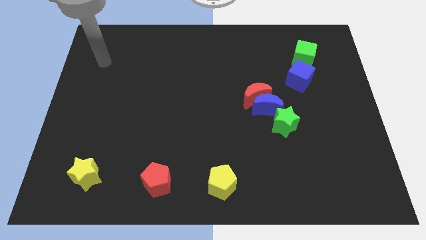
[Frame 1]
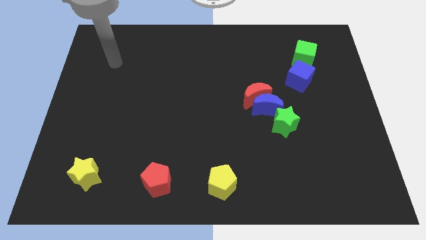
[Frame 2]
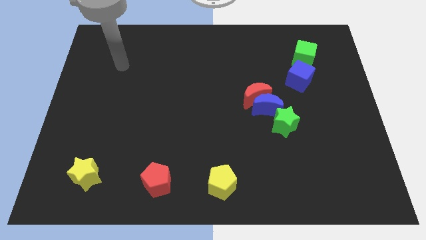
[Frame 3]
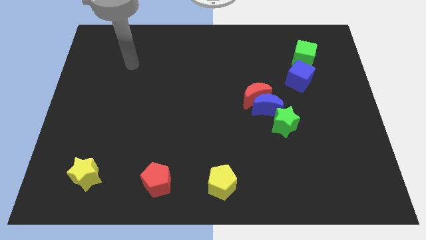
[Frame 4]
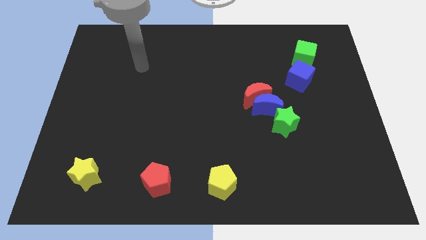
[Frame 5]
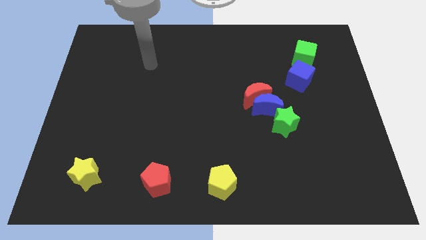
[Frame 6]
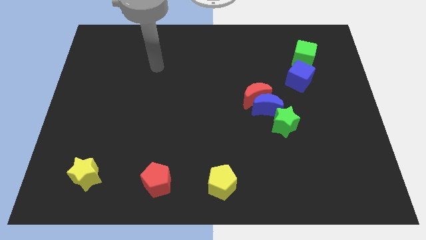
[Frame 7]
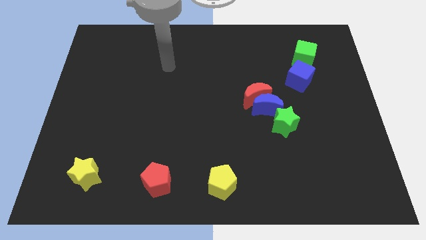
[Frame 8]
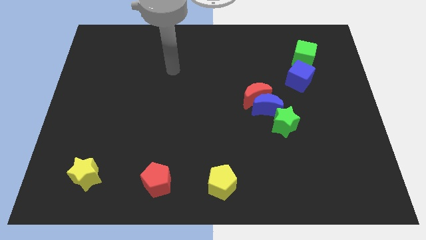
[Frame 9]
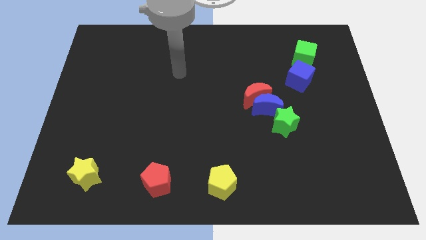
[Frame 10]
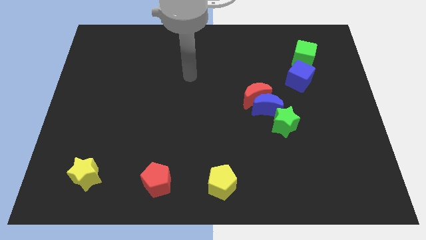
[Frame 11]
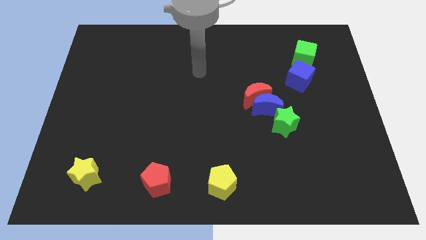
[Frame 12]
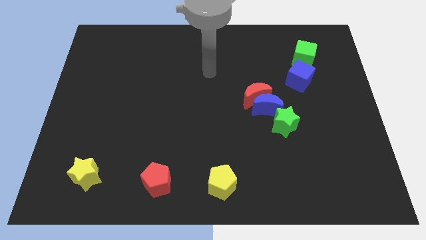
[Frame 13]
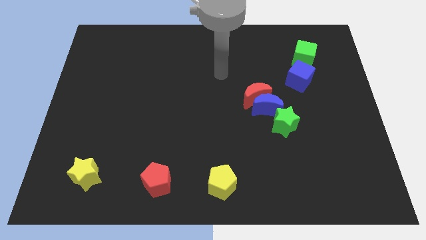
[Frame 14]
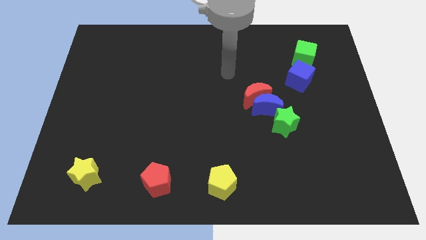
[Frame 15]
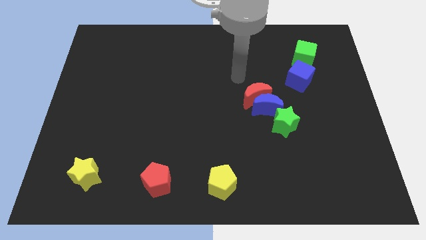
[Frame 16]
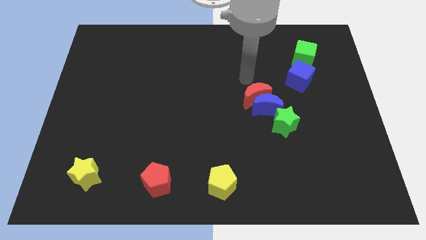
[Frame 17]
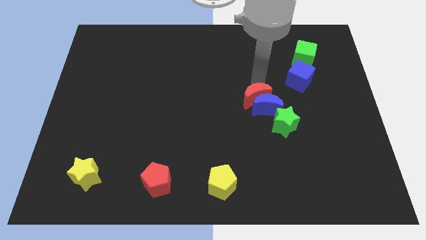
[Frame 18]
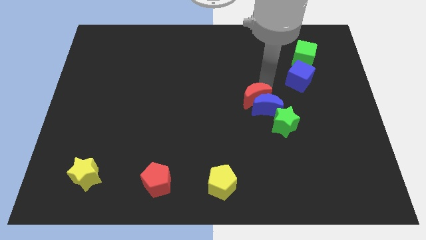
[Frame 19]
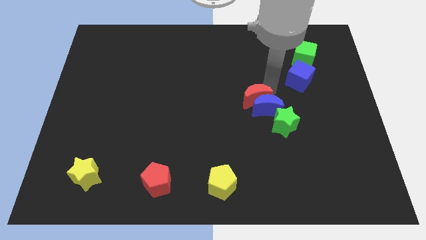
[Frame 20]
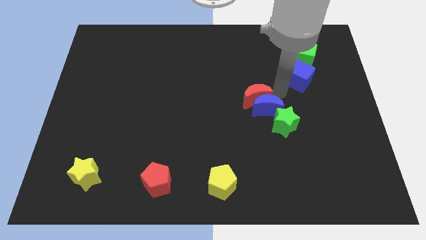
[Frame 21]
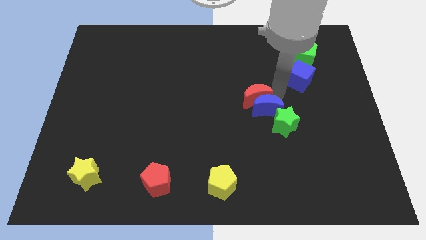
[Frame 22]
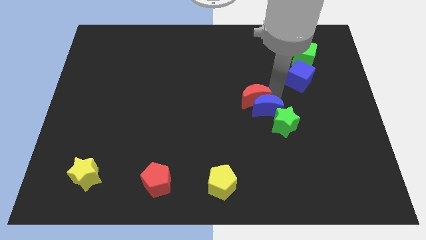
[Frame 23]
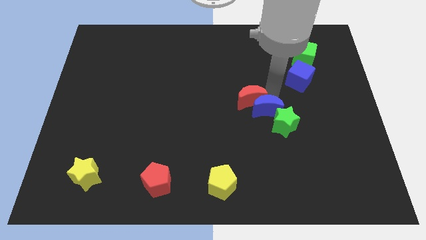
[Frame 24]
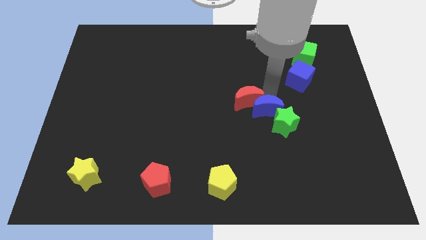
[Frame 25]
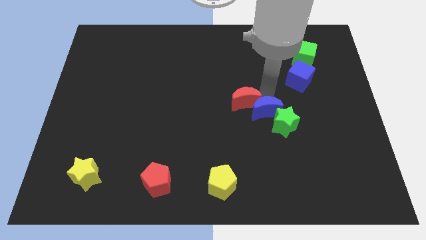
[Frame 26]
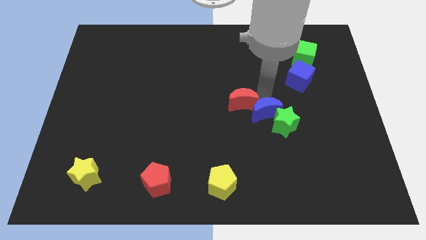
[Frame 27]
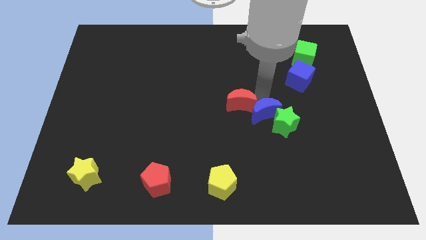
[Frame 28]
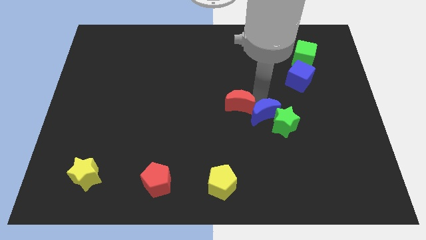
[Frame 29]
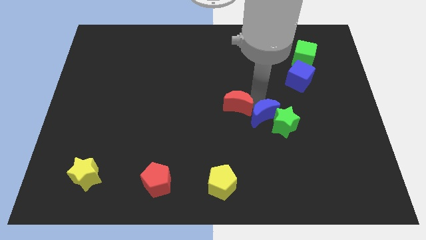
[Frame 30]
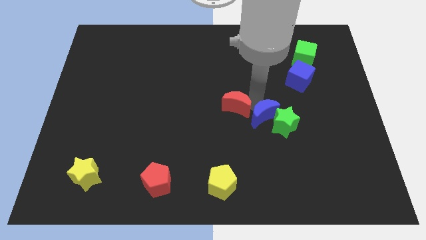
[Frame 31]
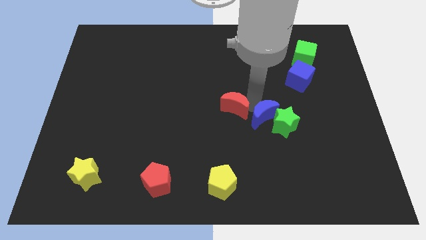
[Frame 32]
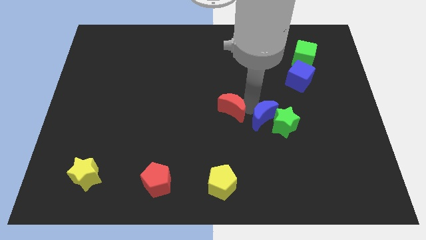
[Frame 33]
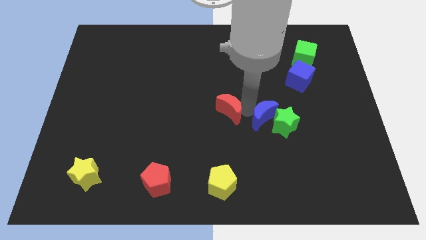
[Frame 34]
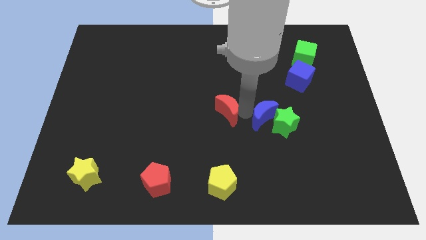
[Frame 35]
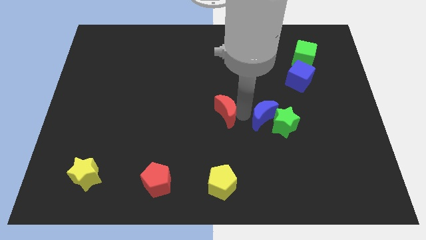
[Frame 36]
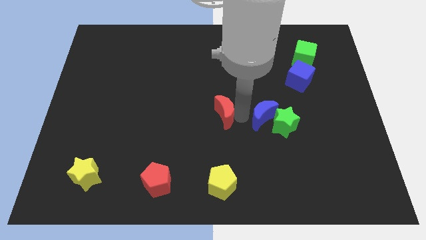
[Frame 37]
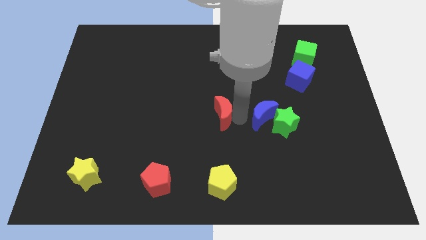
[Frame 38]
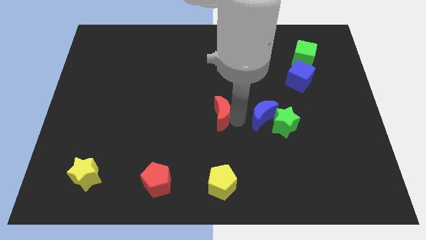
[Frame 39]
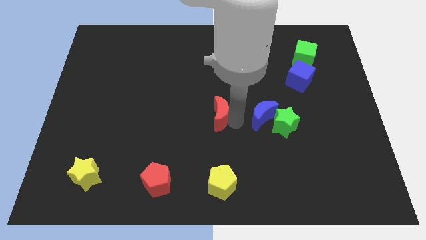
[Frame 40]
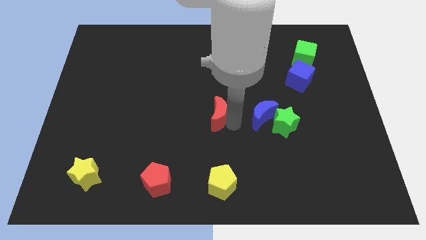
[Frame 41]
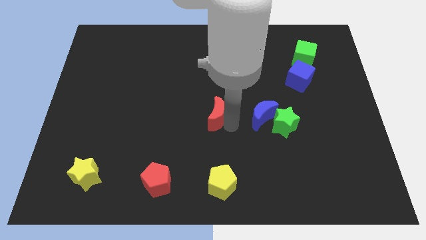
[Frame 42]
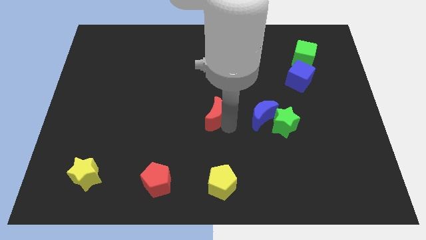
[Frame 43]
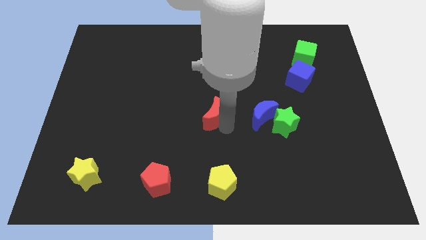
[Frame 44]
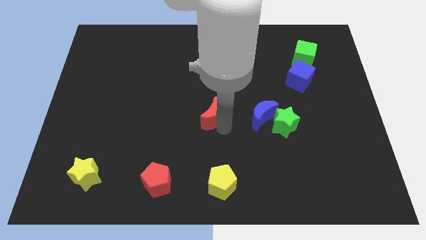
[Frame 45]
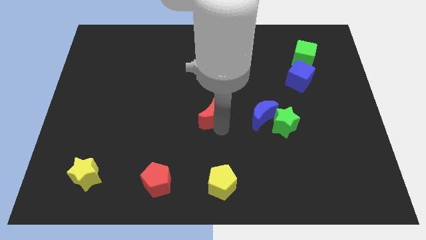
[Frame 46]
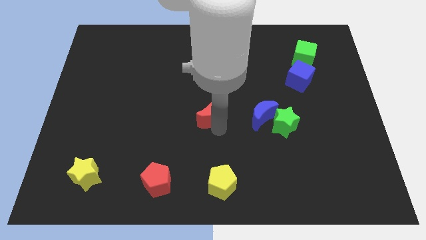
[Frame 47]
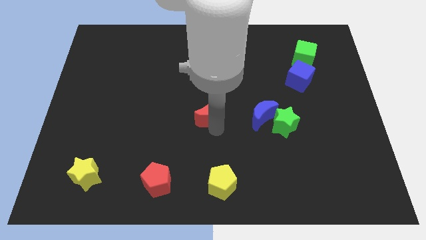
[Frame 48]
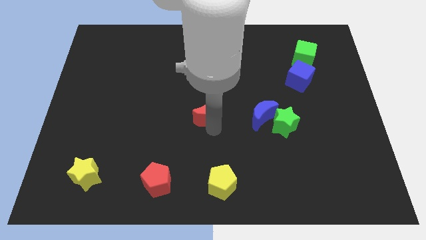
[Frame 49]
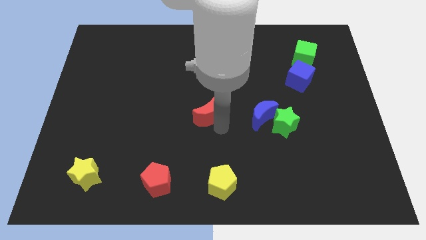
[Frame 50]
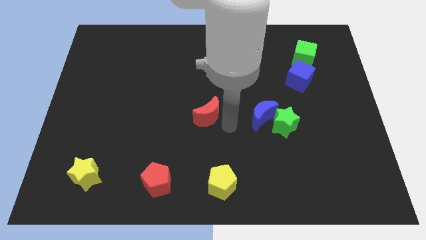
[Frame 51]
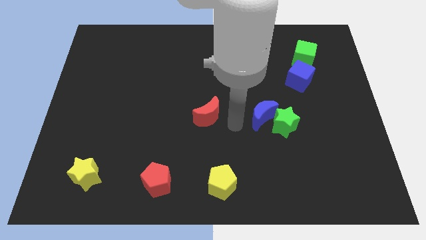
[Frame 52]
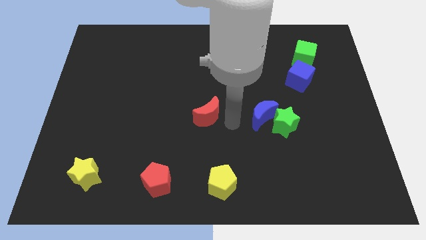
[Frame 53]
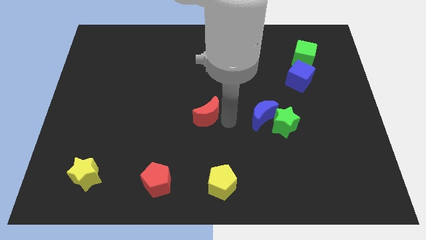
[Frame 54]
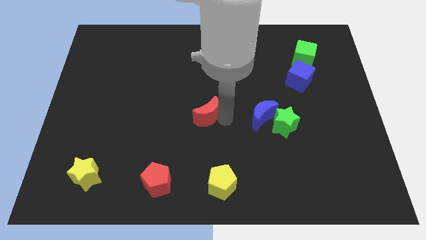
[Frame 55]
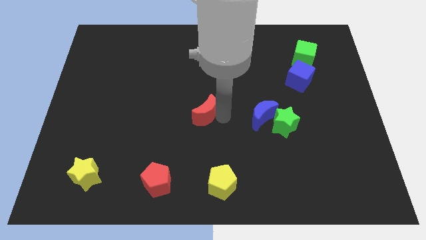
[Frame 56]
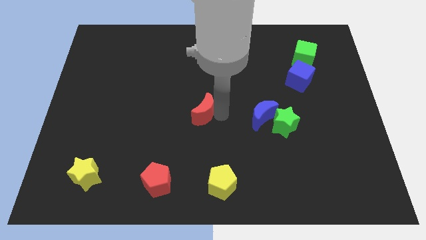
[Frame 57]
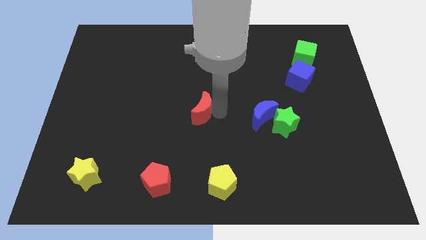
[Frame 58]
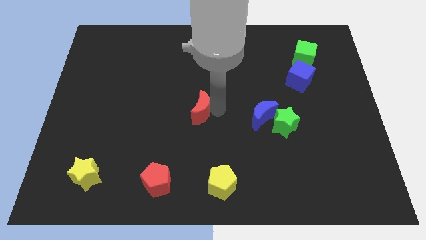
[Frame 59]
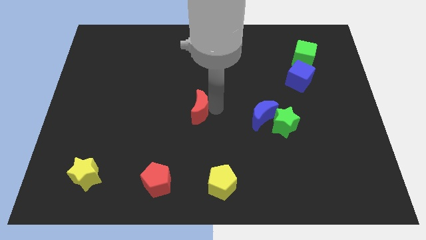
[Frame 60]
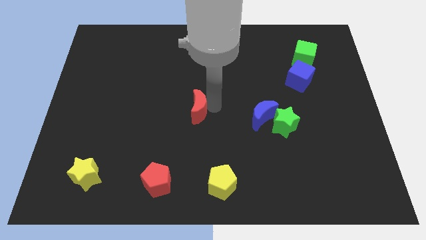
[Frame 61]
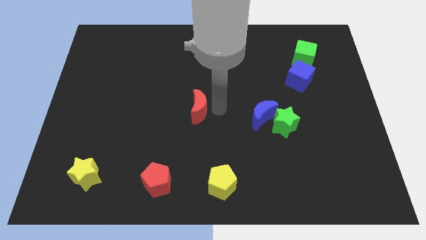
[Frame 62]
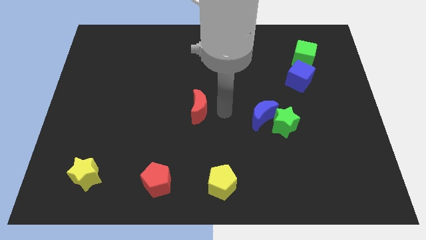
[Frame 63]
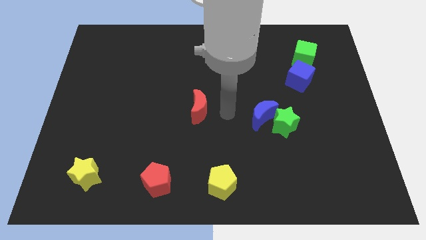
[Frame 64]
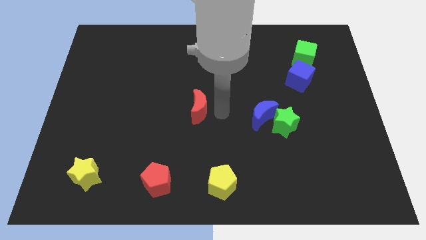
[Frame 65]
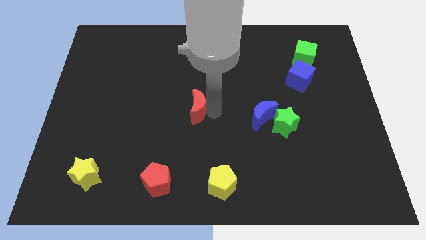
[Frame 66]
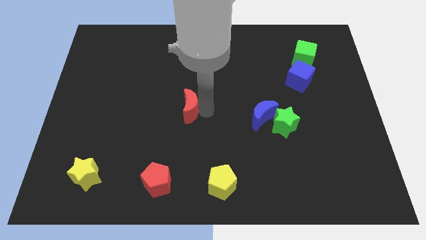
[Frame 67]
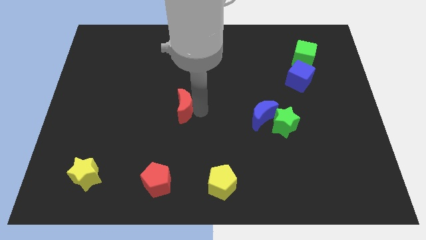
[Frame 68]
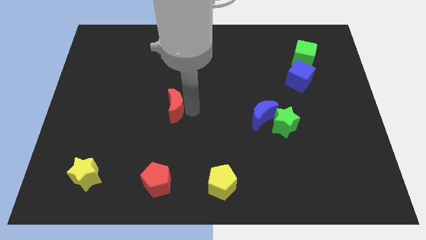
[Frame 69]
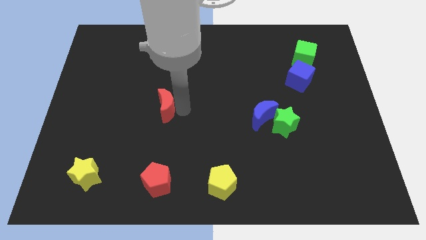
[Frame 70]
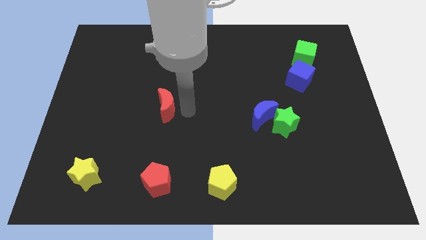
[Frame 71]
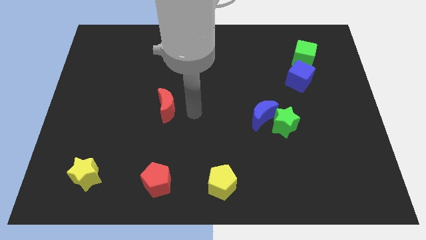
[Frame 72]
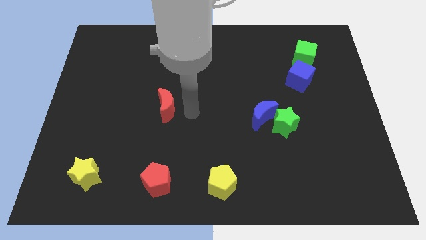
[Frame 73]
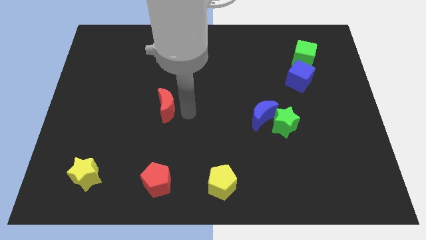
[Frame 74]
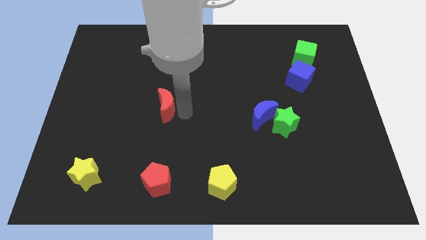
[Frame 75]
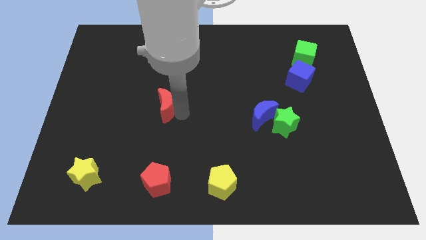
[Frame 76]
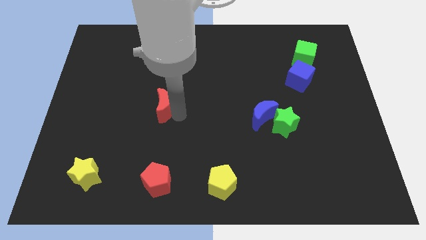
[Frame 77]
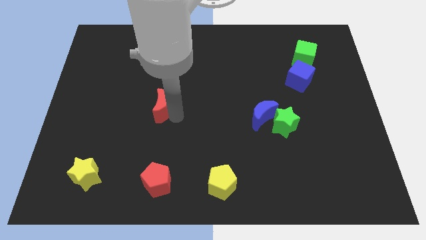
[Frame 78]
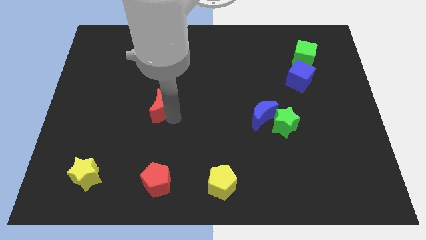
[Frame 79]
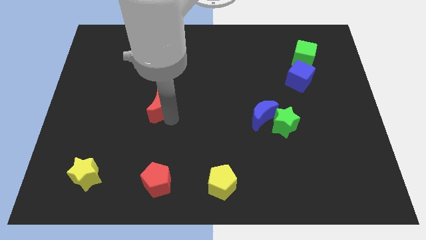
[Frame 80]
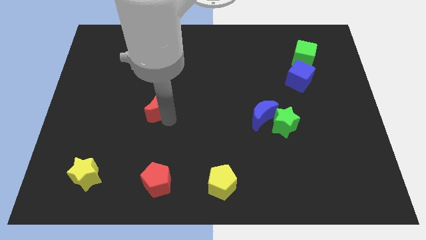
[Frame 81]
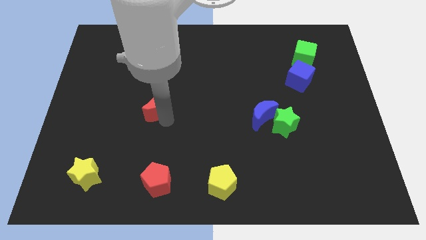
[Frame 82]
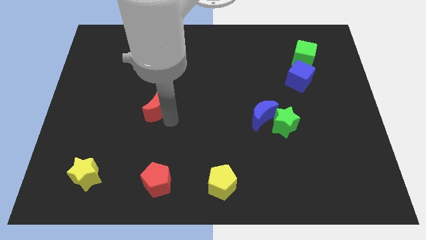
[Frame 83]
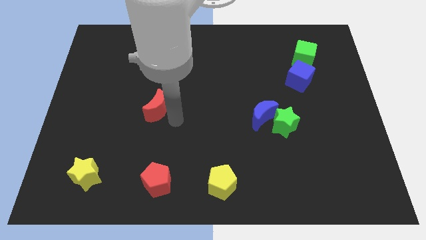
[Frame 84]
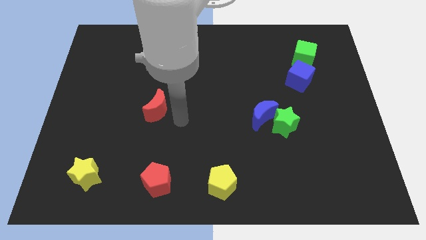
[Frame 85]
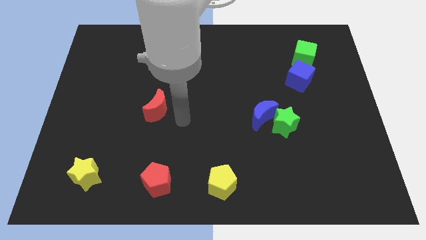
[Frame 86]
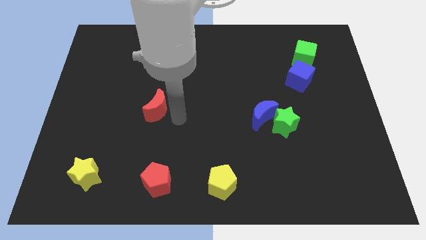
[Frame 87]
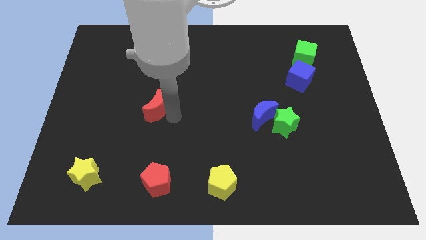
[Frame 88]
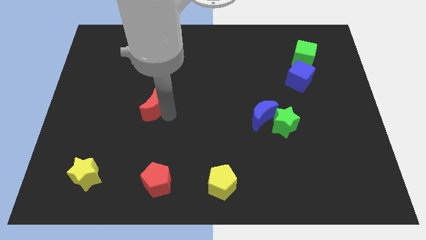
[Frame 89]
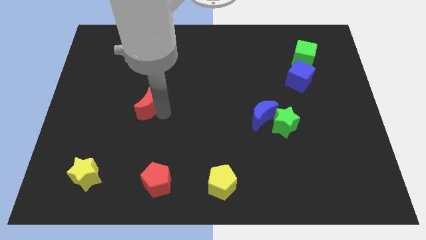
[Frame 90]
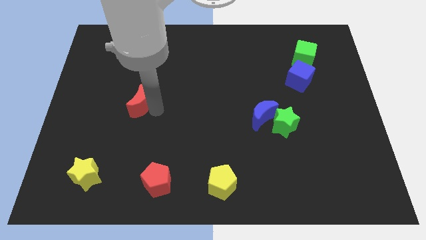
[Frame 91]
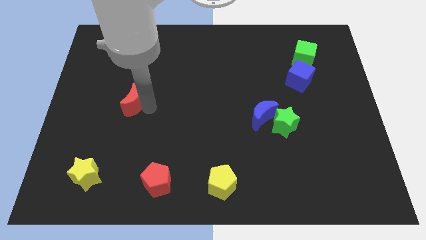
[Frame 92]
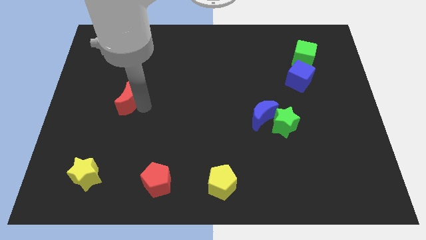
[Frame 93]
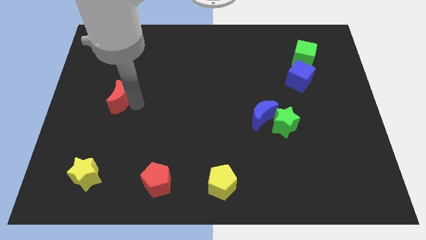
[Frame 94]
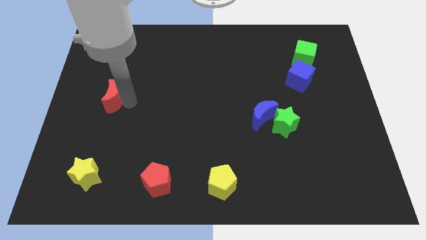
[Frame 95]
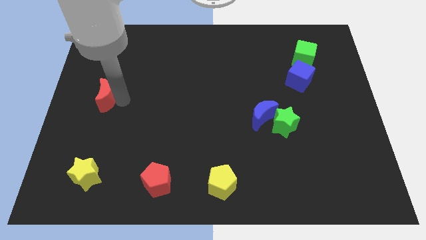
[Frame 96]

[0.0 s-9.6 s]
push the red moon to the center left
